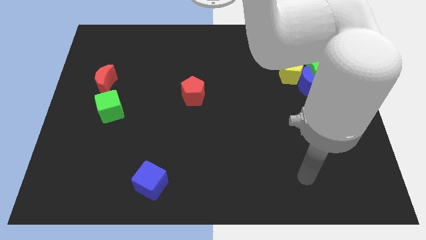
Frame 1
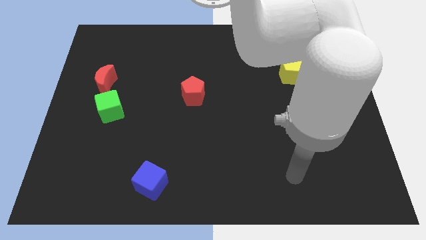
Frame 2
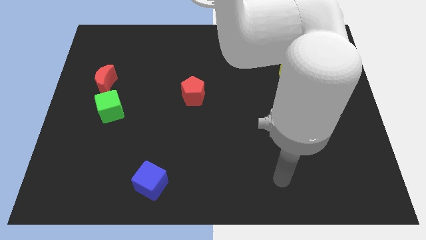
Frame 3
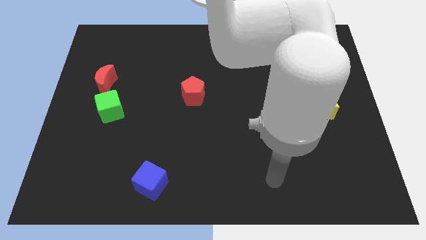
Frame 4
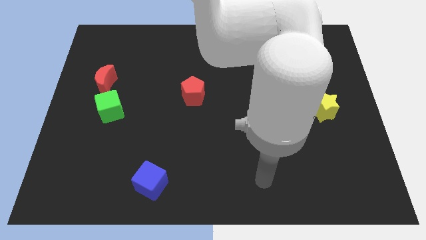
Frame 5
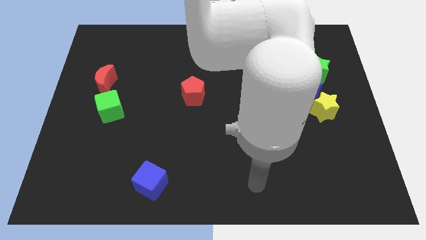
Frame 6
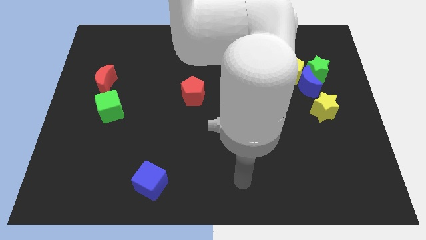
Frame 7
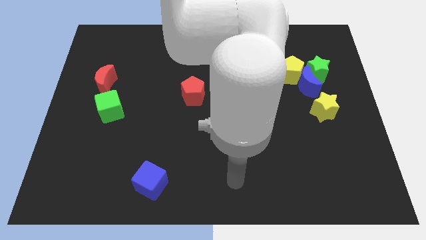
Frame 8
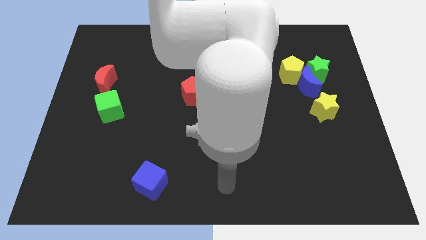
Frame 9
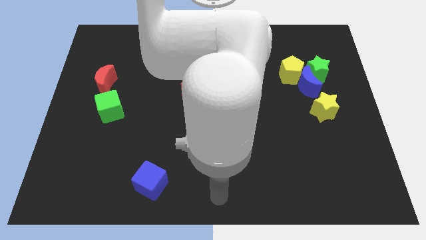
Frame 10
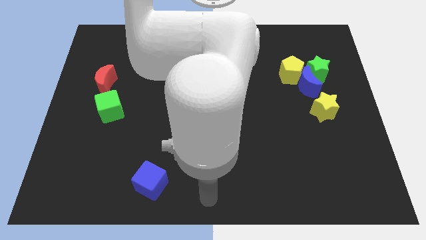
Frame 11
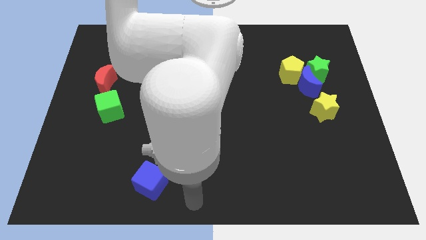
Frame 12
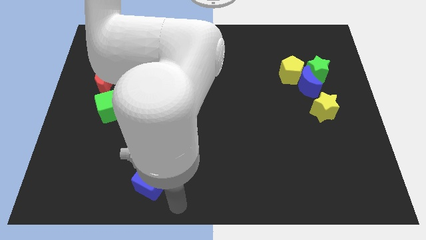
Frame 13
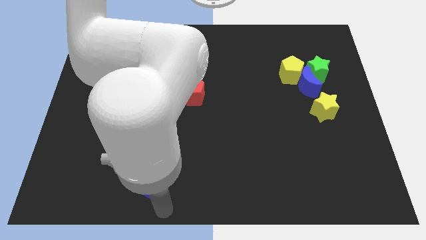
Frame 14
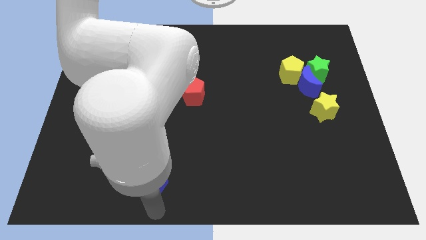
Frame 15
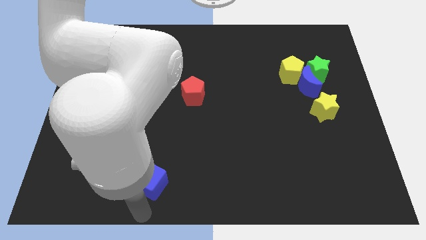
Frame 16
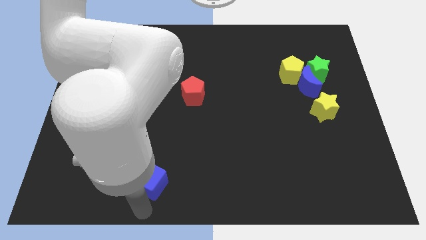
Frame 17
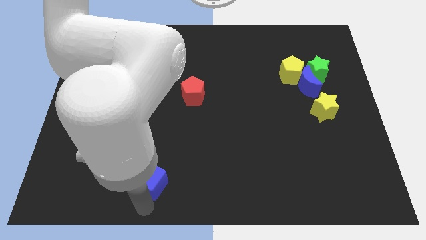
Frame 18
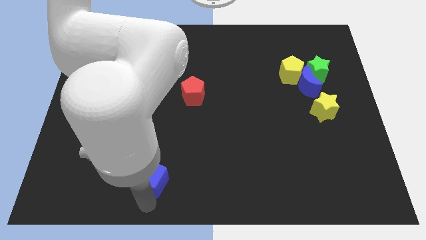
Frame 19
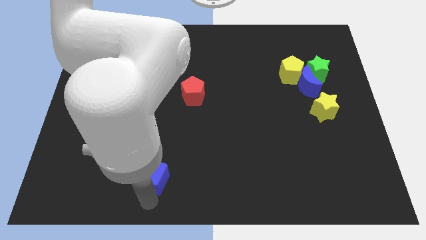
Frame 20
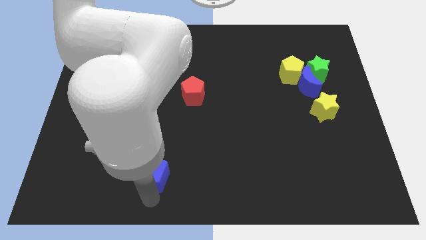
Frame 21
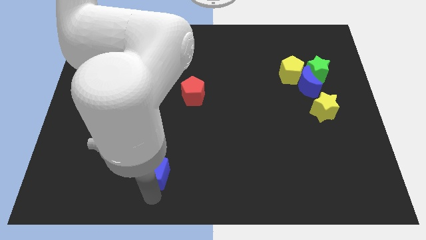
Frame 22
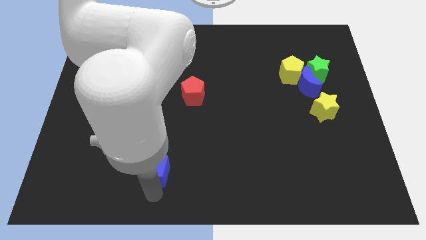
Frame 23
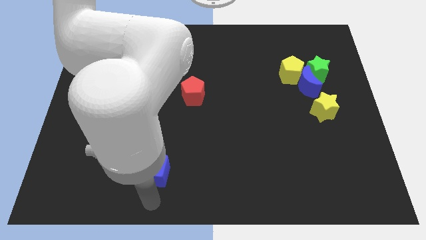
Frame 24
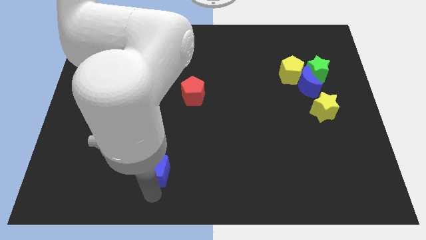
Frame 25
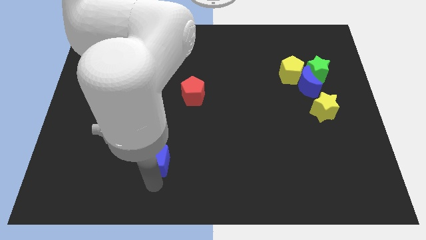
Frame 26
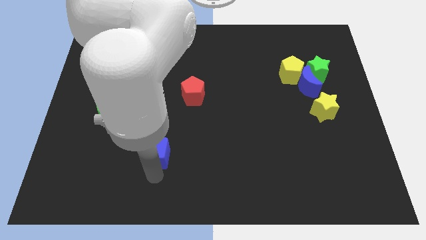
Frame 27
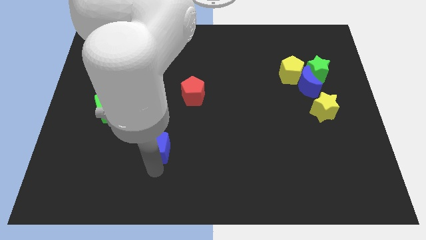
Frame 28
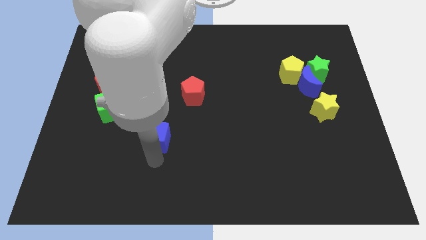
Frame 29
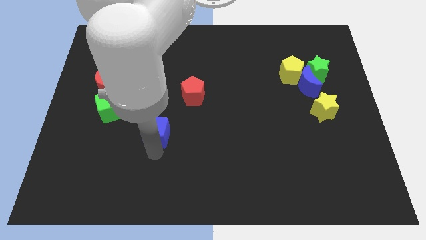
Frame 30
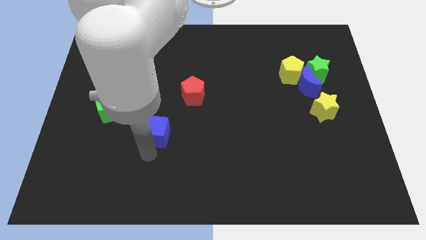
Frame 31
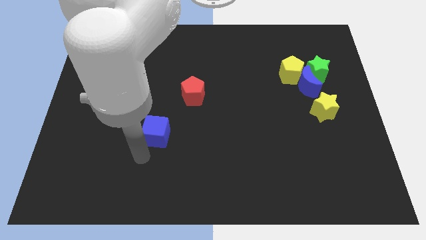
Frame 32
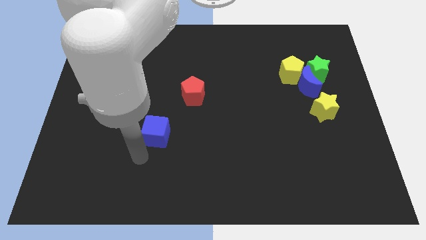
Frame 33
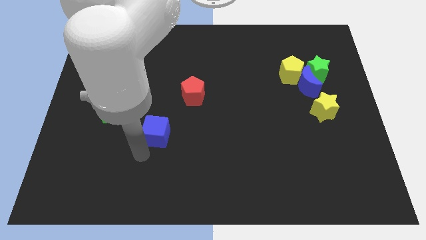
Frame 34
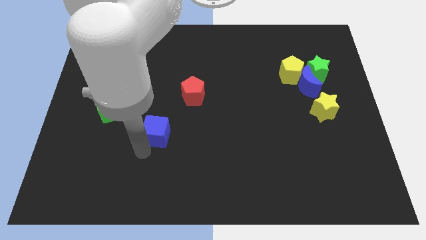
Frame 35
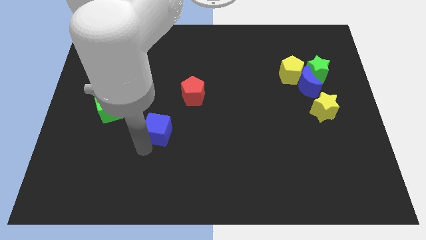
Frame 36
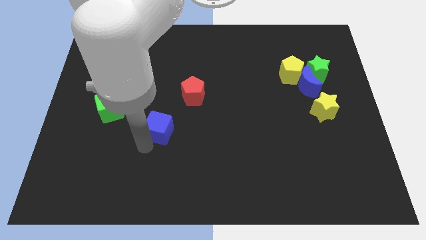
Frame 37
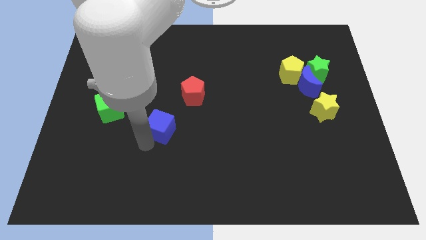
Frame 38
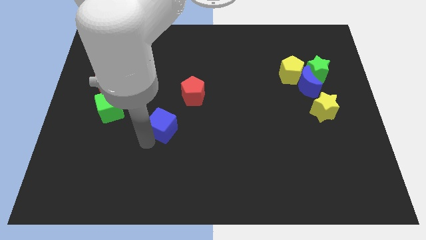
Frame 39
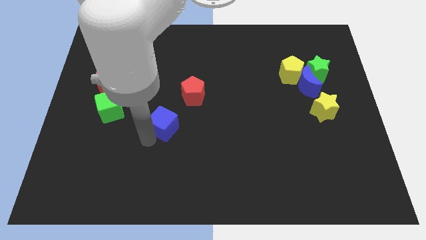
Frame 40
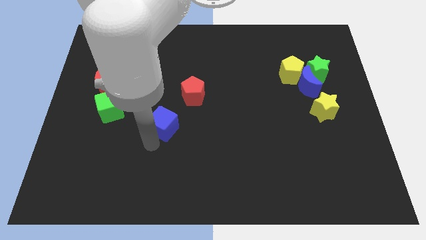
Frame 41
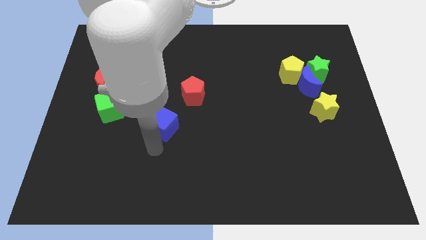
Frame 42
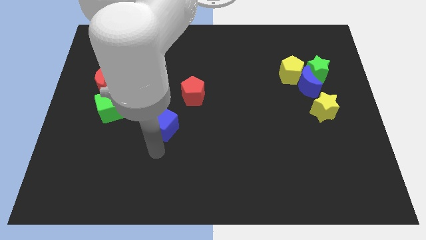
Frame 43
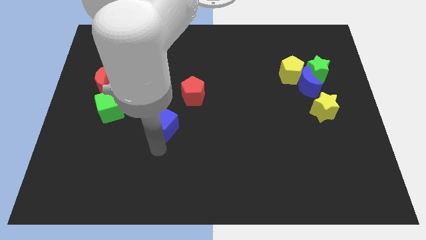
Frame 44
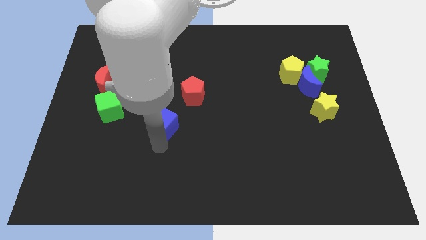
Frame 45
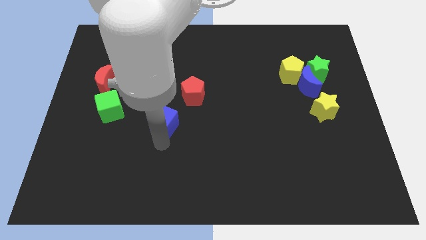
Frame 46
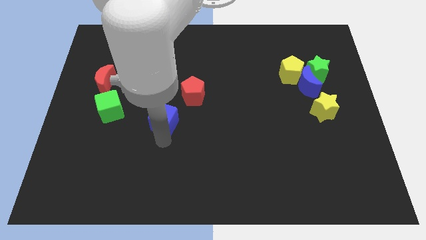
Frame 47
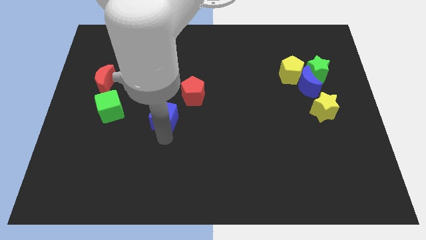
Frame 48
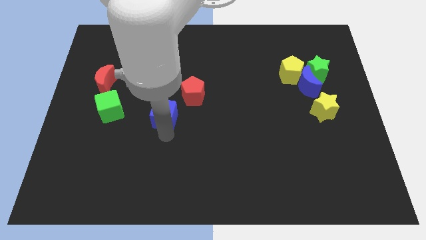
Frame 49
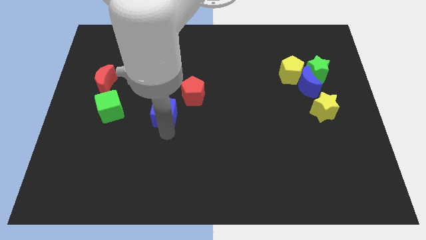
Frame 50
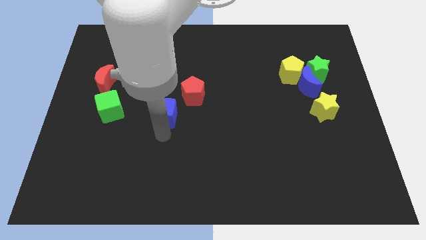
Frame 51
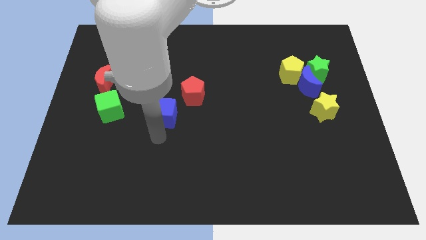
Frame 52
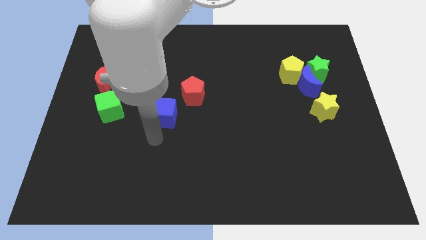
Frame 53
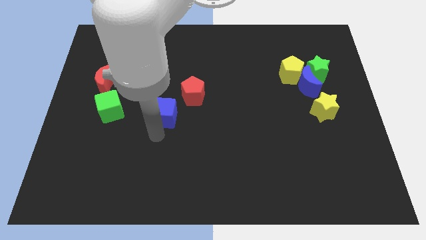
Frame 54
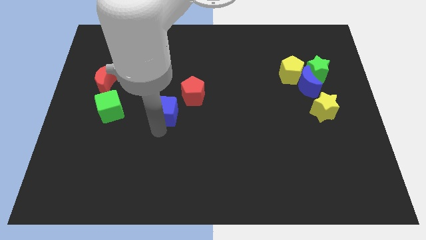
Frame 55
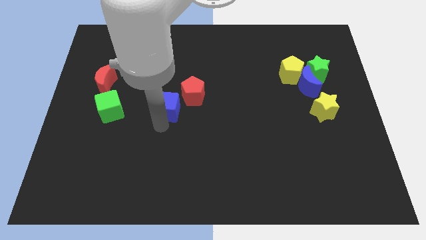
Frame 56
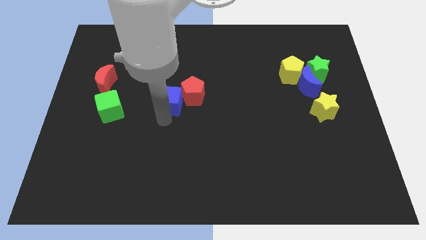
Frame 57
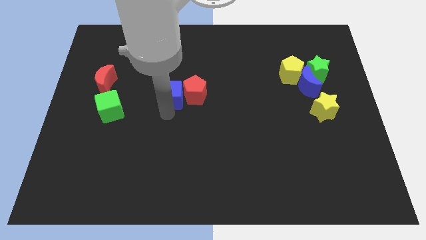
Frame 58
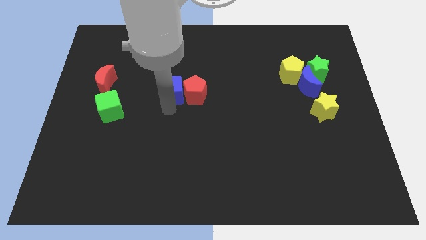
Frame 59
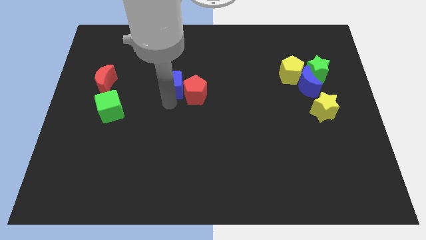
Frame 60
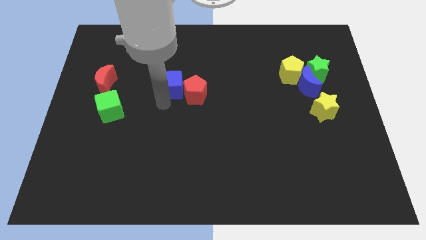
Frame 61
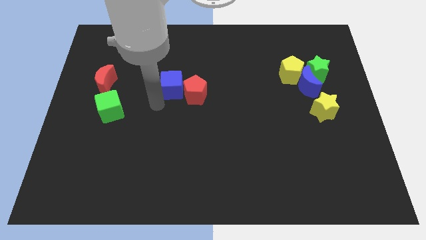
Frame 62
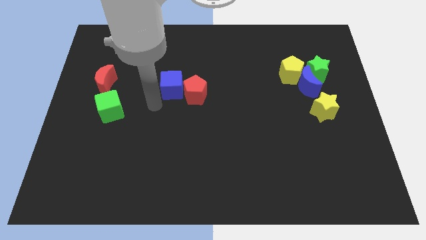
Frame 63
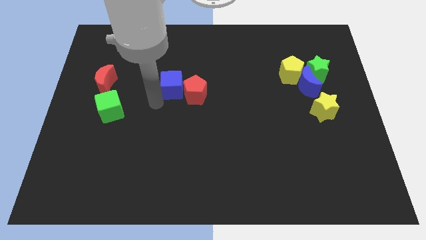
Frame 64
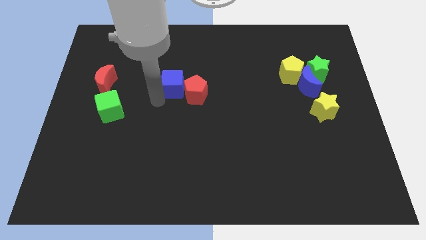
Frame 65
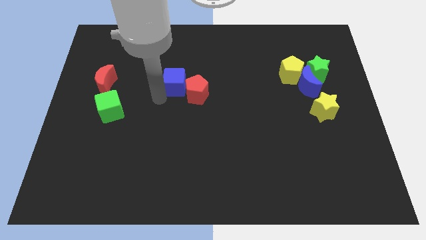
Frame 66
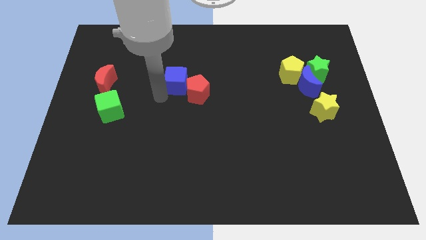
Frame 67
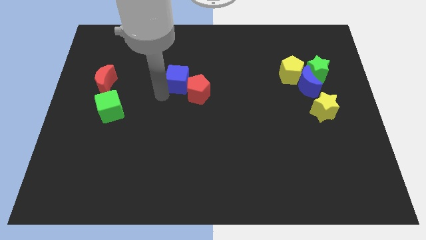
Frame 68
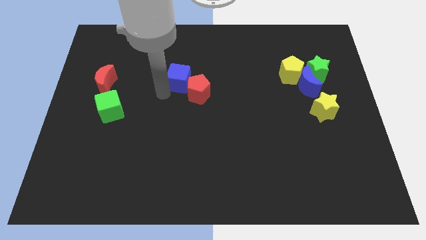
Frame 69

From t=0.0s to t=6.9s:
move the blue cube to the top of the red pentagon

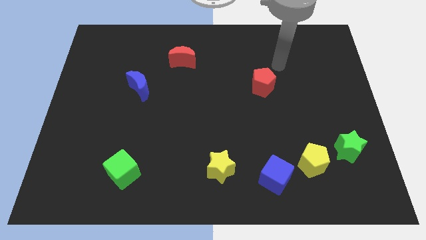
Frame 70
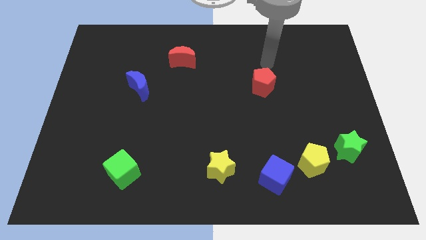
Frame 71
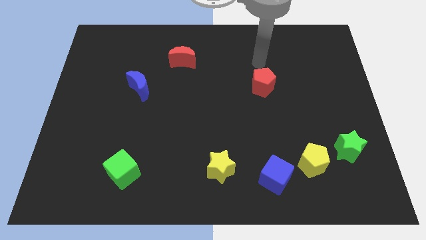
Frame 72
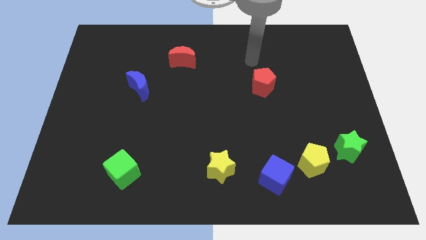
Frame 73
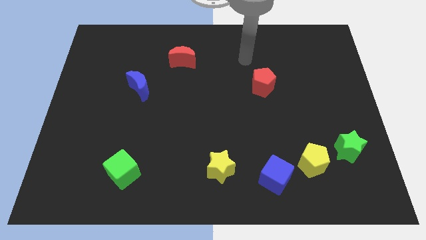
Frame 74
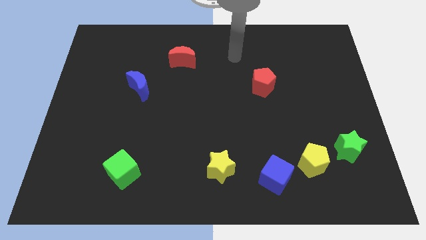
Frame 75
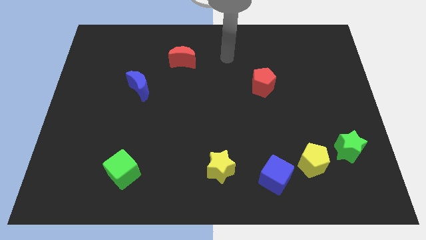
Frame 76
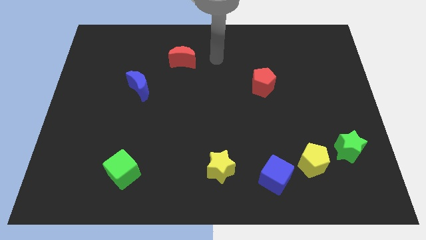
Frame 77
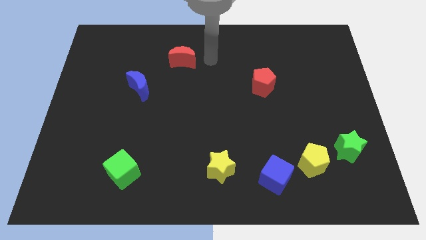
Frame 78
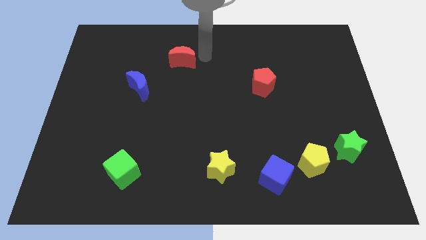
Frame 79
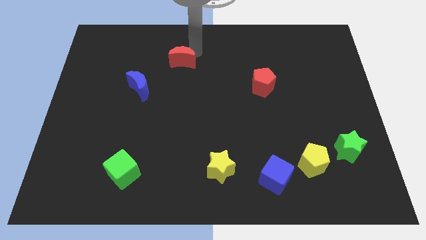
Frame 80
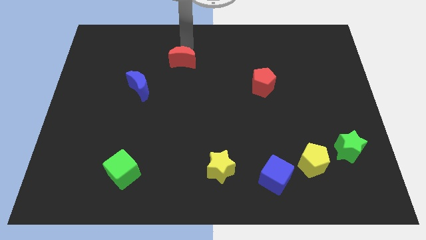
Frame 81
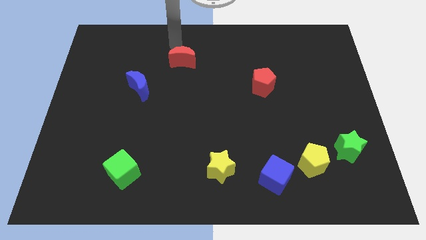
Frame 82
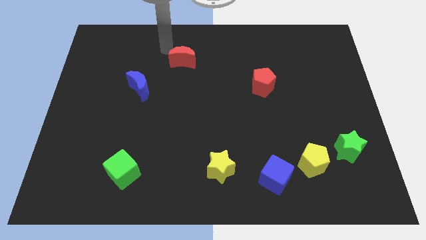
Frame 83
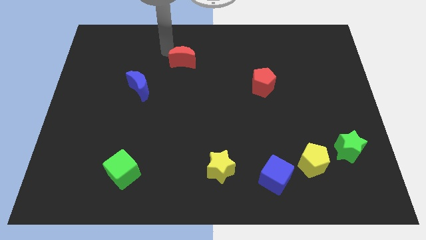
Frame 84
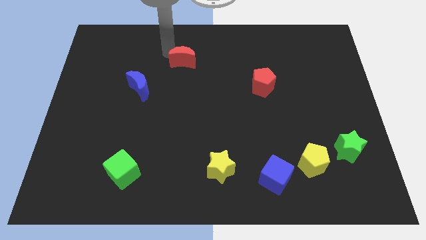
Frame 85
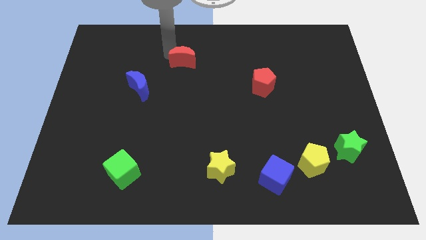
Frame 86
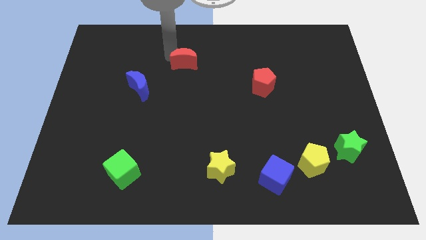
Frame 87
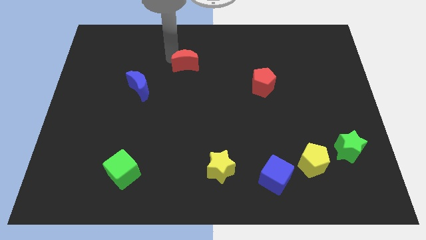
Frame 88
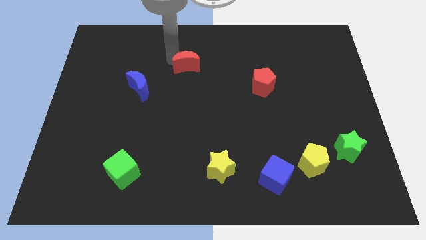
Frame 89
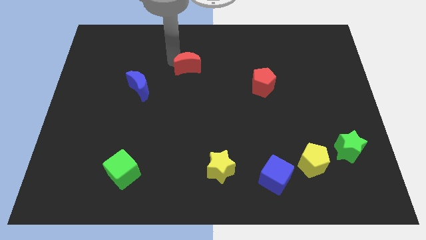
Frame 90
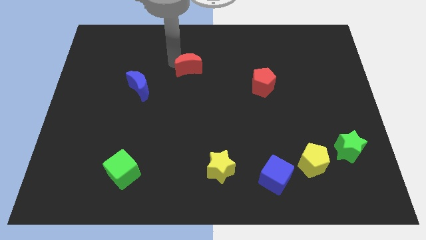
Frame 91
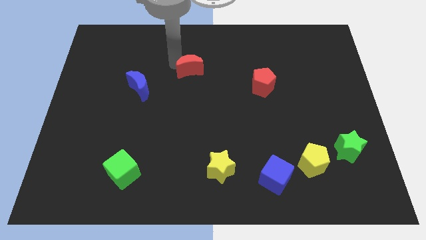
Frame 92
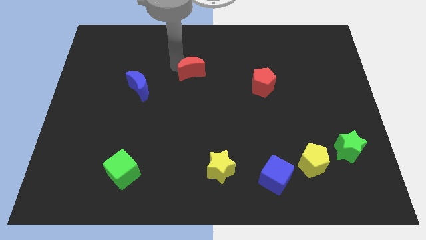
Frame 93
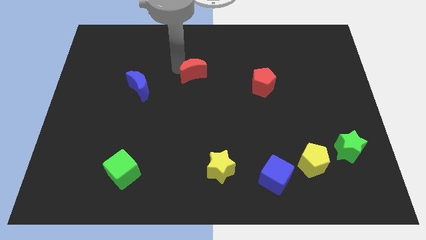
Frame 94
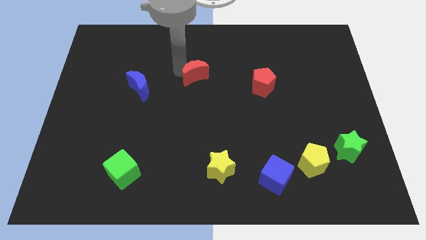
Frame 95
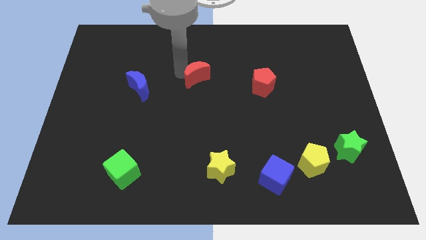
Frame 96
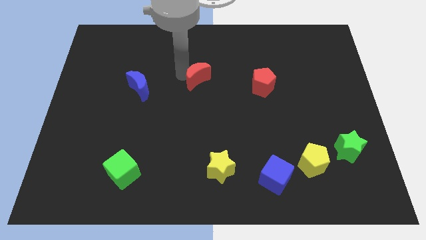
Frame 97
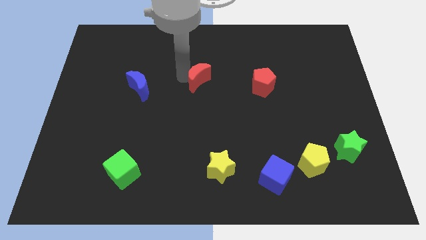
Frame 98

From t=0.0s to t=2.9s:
put the red moon just left of the red pentagon
